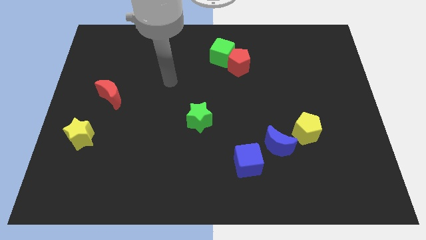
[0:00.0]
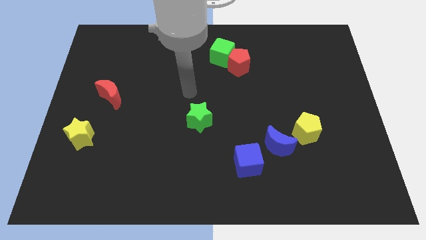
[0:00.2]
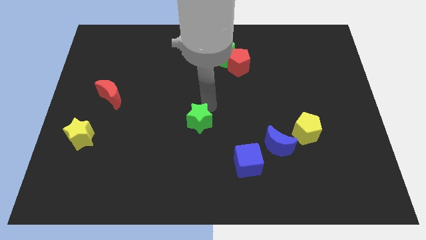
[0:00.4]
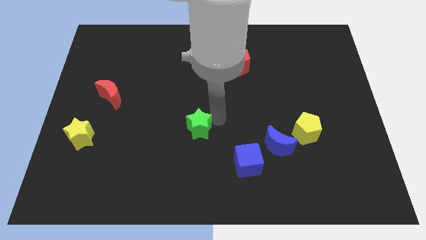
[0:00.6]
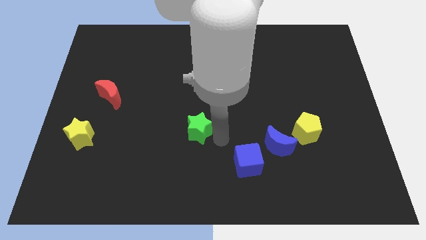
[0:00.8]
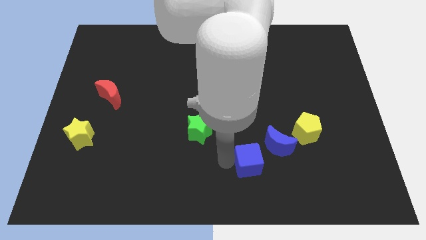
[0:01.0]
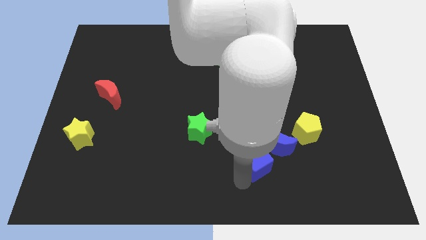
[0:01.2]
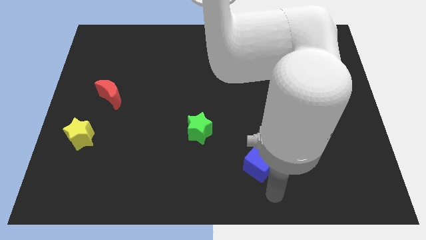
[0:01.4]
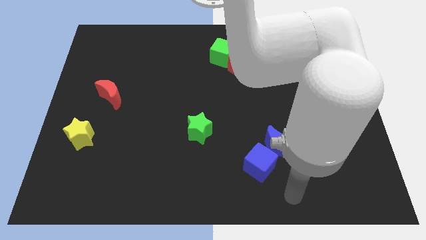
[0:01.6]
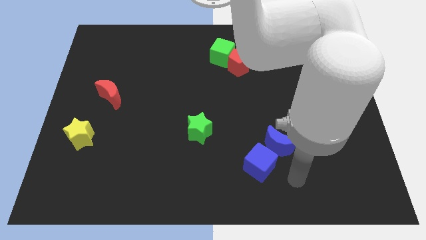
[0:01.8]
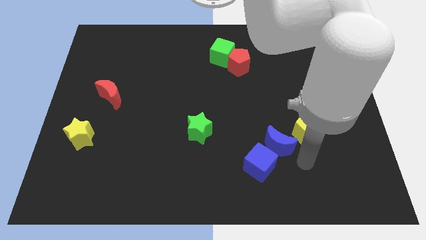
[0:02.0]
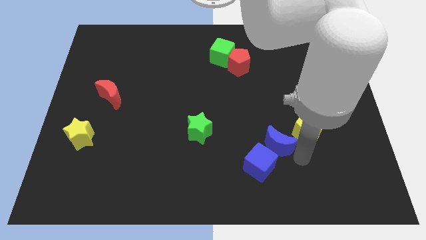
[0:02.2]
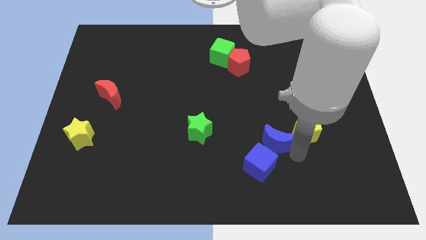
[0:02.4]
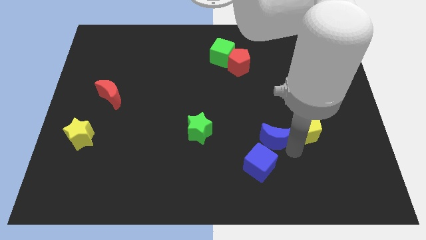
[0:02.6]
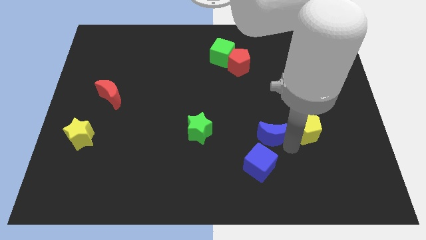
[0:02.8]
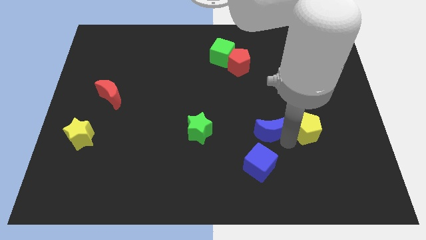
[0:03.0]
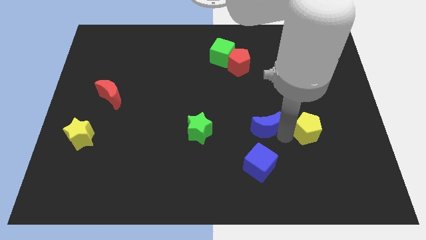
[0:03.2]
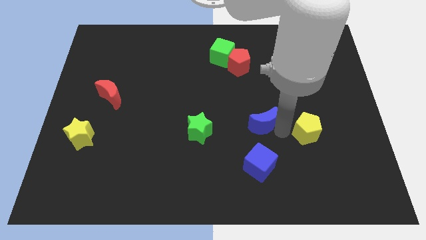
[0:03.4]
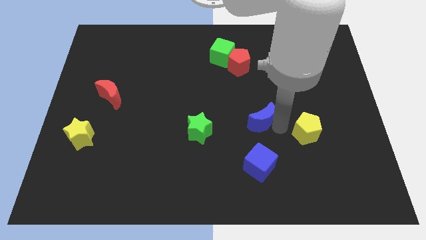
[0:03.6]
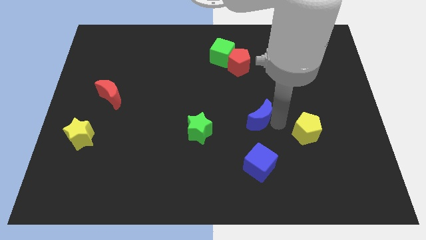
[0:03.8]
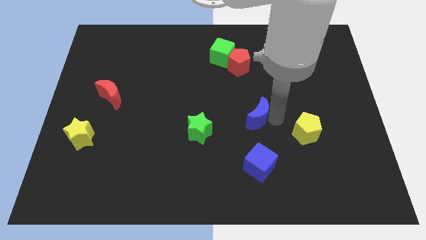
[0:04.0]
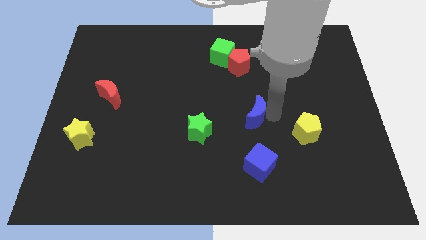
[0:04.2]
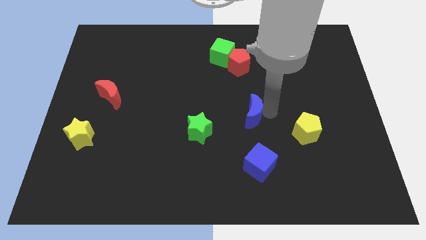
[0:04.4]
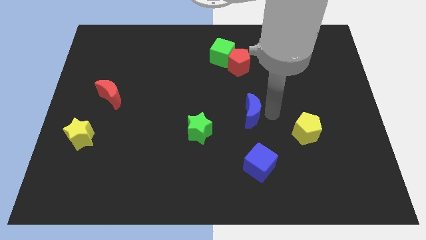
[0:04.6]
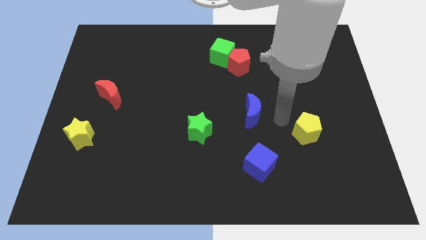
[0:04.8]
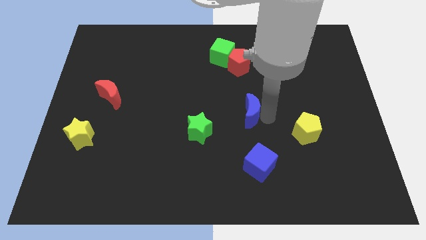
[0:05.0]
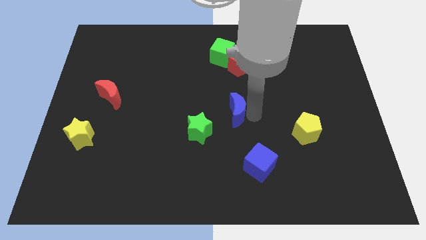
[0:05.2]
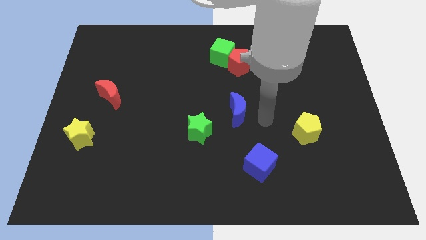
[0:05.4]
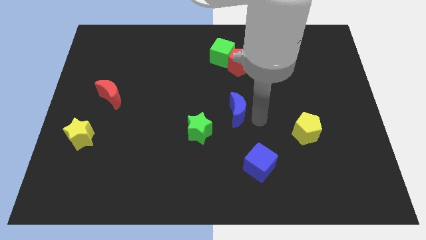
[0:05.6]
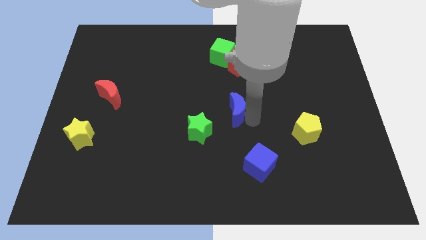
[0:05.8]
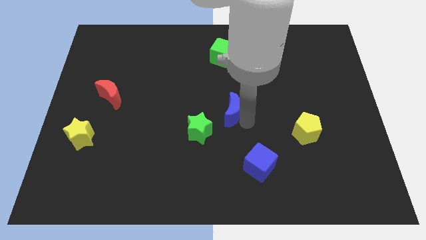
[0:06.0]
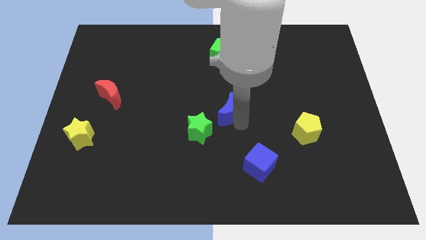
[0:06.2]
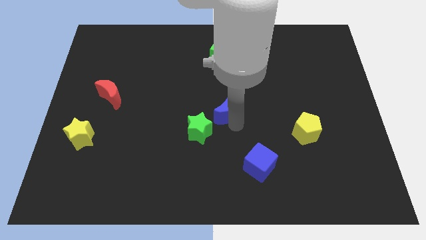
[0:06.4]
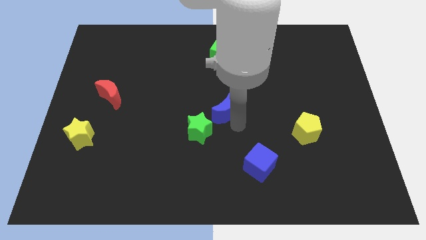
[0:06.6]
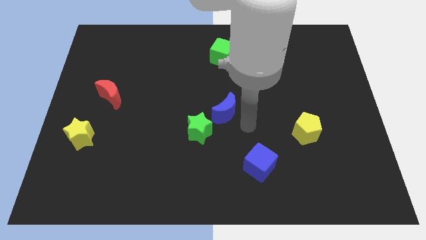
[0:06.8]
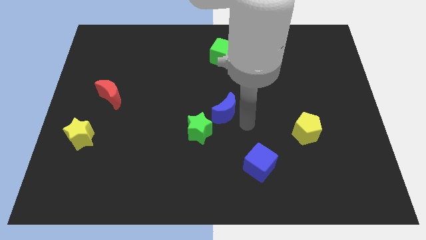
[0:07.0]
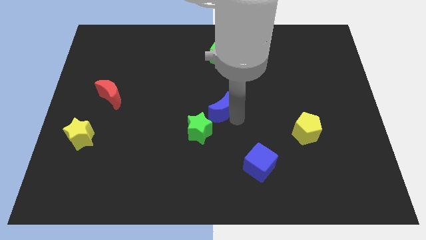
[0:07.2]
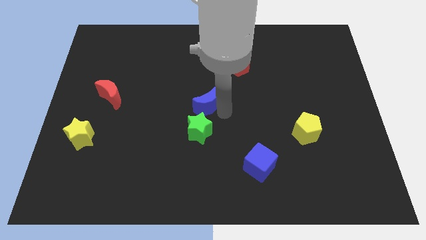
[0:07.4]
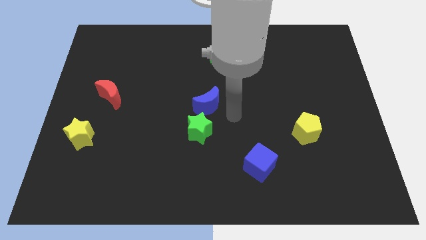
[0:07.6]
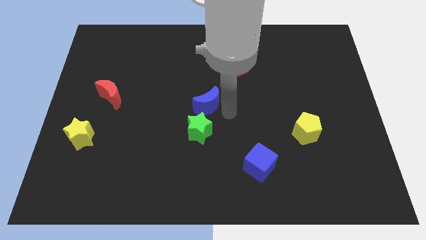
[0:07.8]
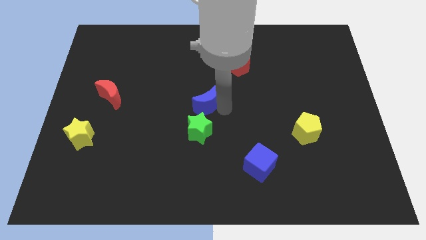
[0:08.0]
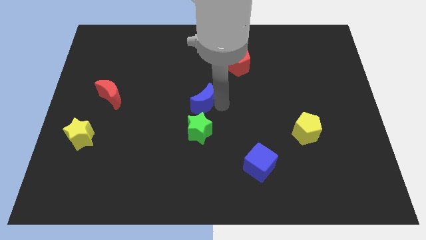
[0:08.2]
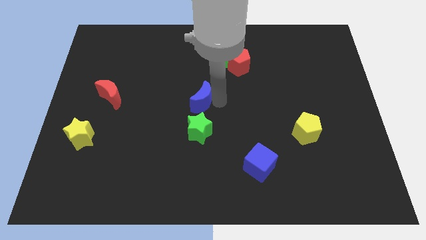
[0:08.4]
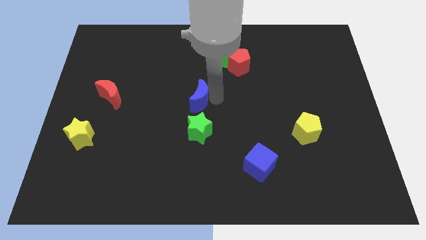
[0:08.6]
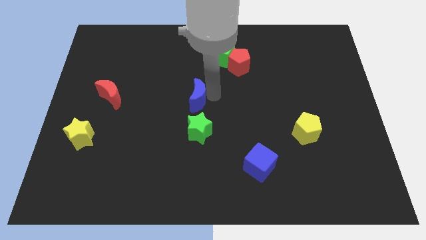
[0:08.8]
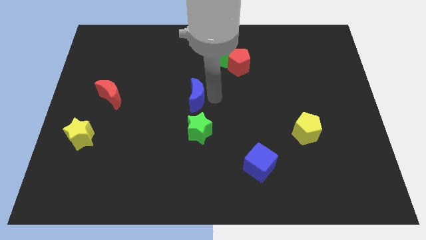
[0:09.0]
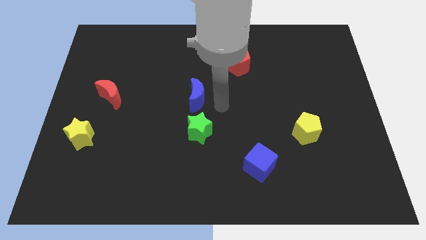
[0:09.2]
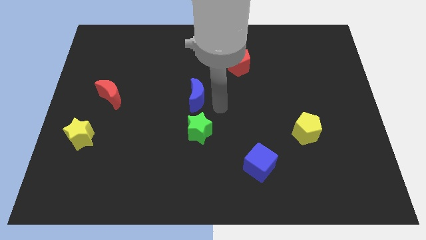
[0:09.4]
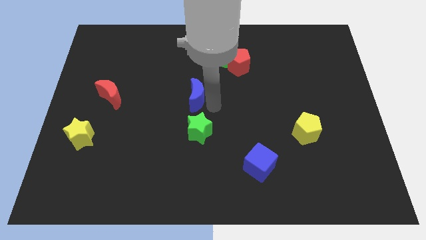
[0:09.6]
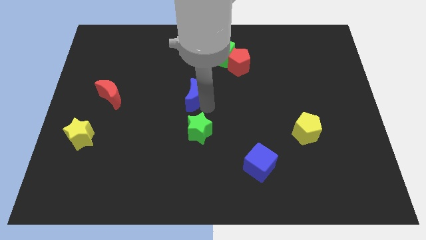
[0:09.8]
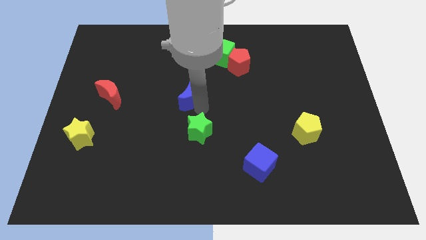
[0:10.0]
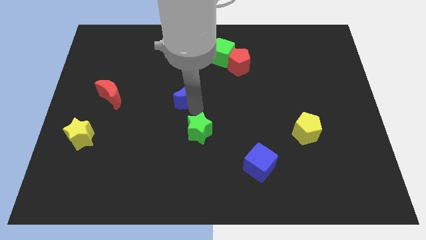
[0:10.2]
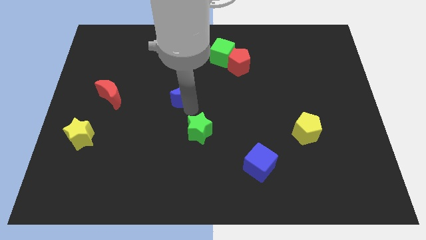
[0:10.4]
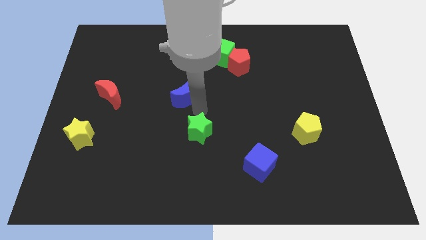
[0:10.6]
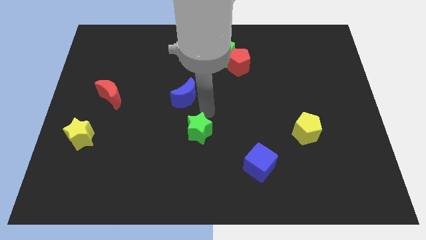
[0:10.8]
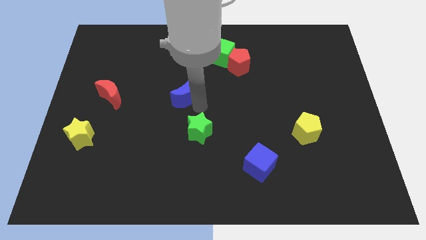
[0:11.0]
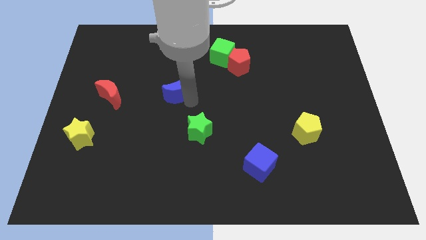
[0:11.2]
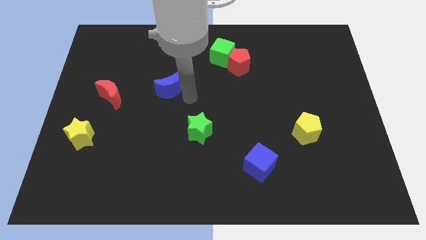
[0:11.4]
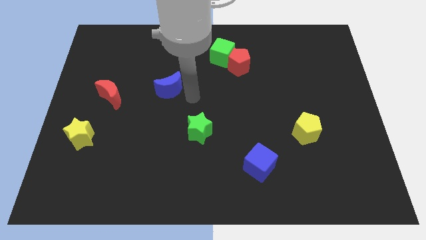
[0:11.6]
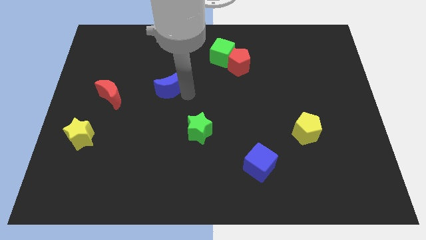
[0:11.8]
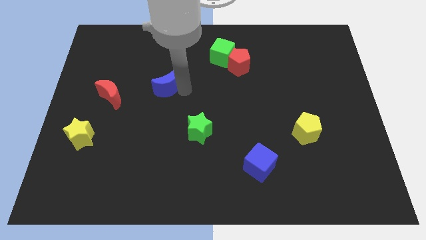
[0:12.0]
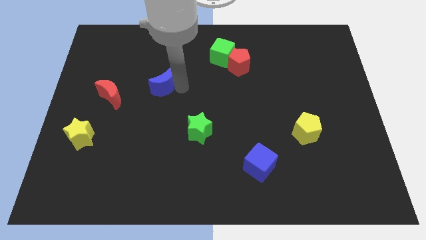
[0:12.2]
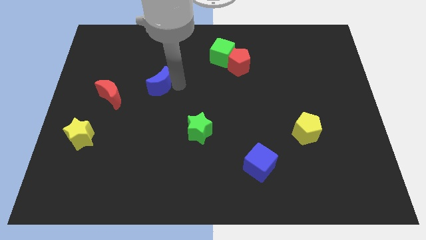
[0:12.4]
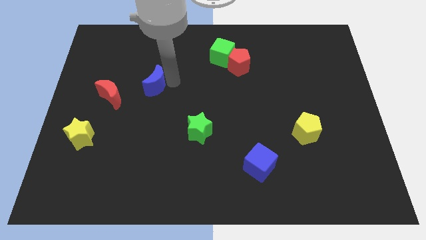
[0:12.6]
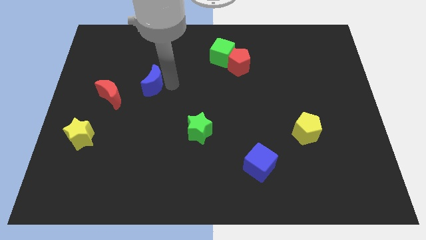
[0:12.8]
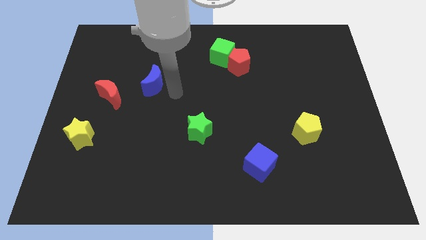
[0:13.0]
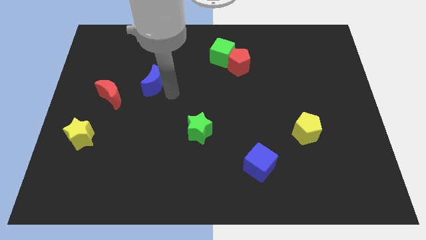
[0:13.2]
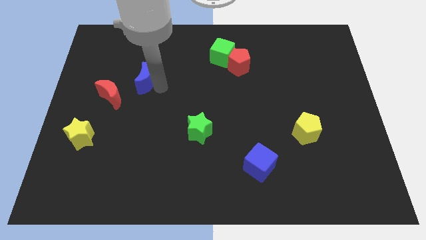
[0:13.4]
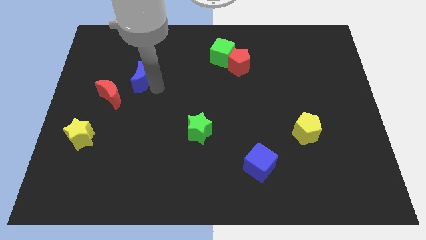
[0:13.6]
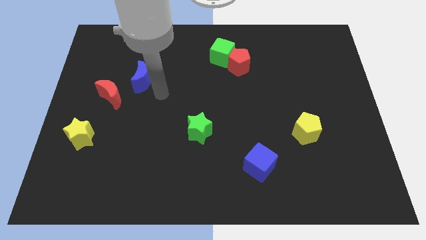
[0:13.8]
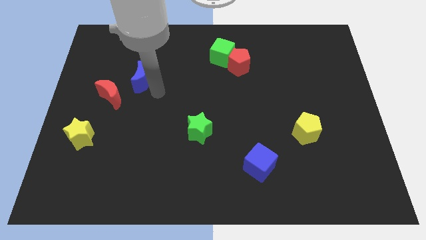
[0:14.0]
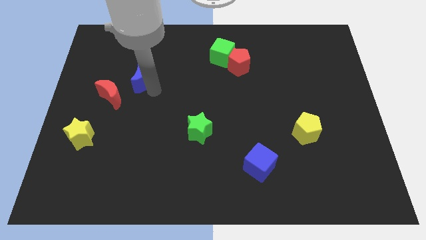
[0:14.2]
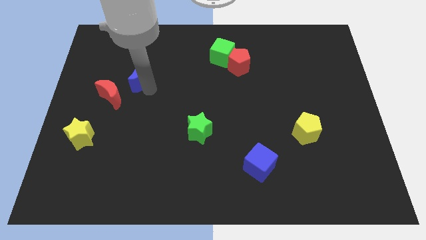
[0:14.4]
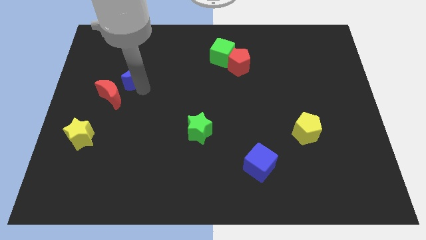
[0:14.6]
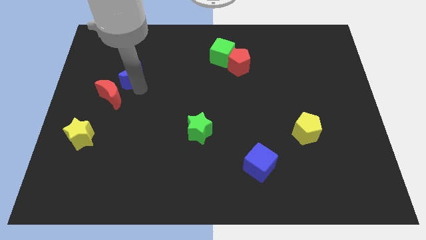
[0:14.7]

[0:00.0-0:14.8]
push the blue moon above the red moon

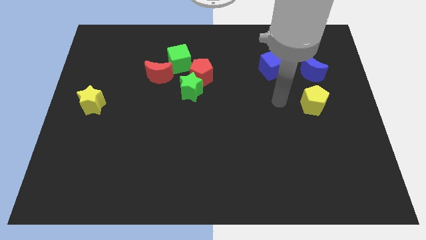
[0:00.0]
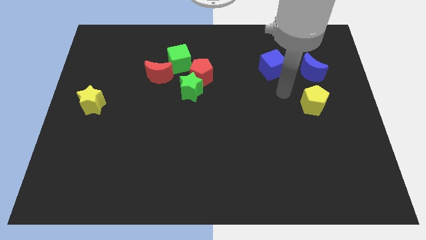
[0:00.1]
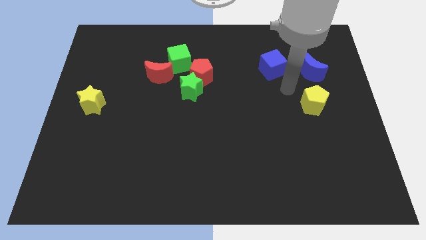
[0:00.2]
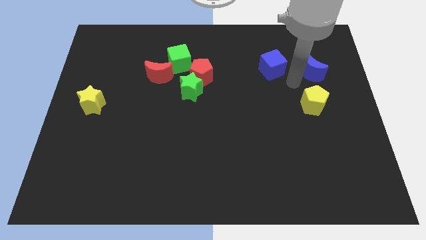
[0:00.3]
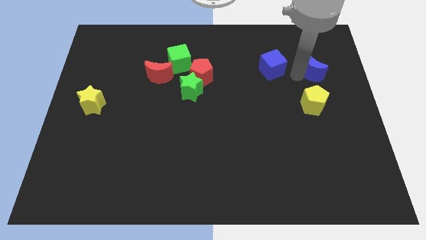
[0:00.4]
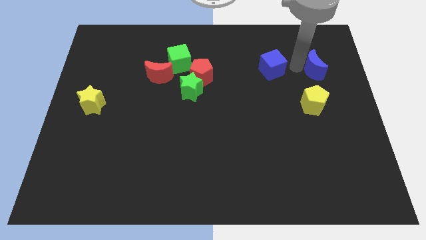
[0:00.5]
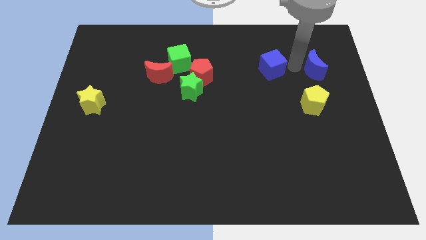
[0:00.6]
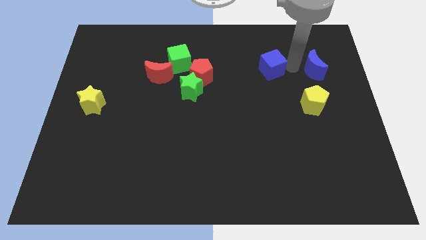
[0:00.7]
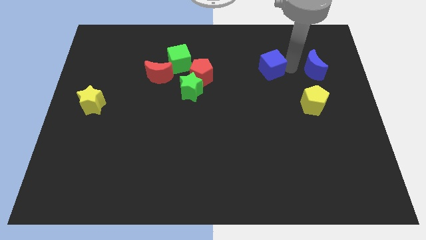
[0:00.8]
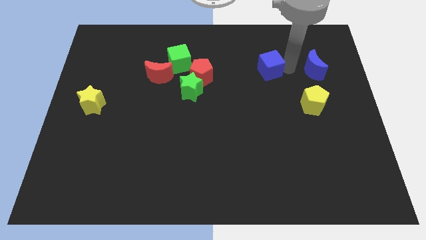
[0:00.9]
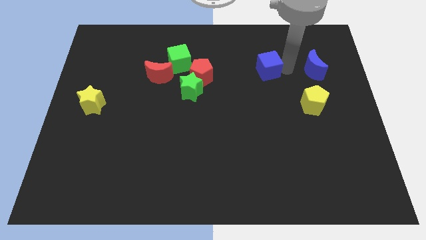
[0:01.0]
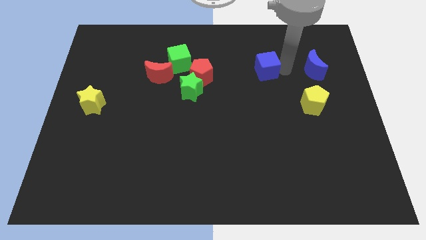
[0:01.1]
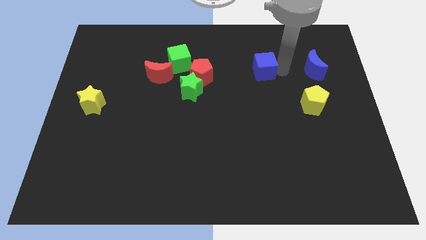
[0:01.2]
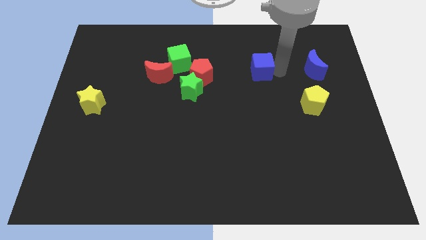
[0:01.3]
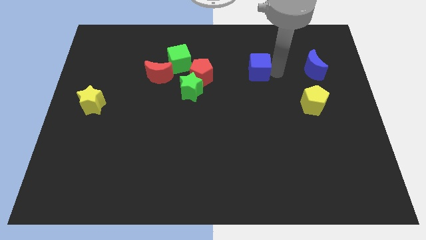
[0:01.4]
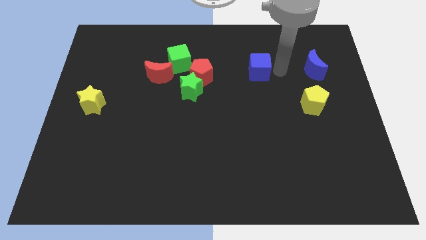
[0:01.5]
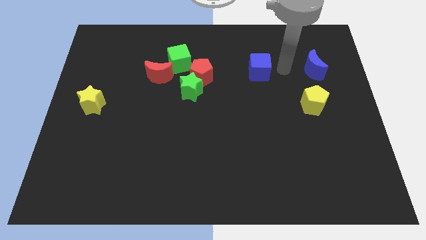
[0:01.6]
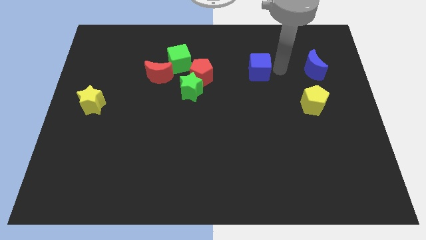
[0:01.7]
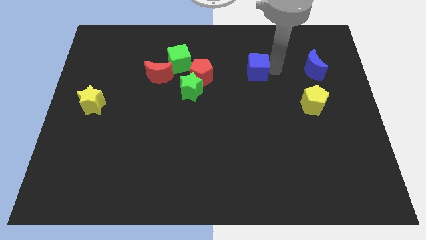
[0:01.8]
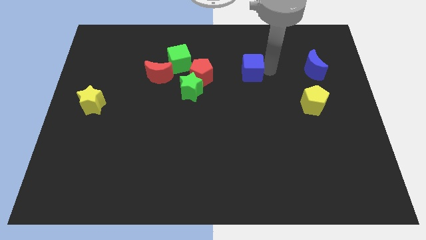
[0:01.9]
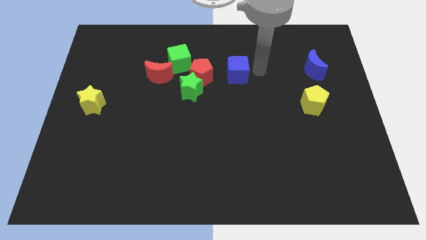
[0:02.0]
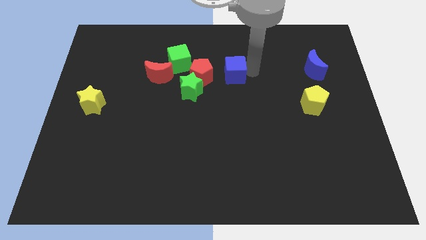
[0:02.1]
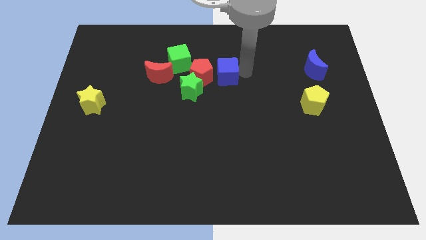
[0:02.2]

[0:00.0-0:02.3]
put the blue cube to the top right side of the green star
